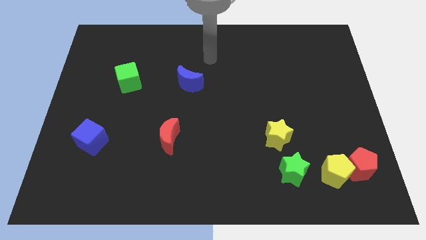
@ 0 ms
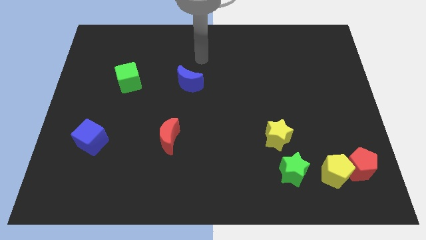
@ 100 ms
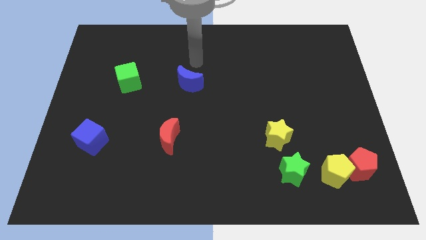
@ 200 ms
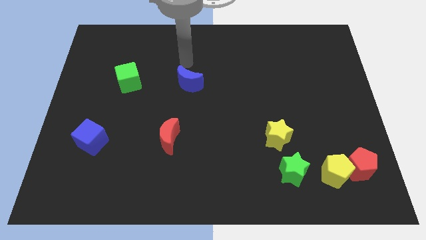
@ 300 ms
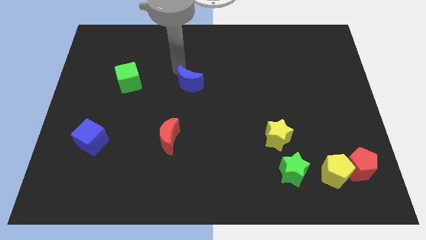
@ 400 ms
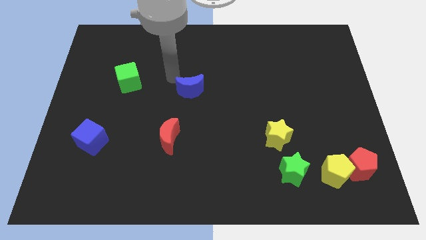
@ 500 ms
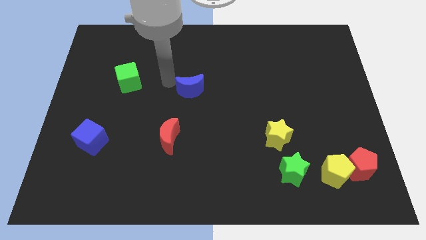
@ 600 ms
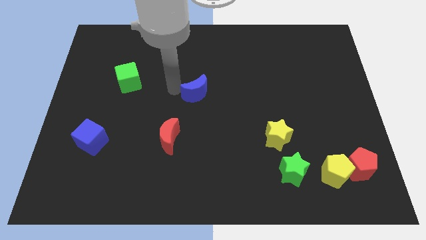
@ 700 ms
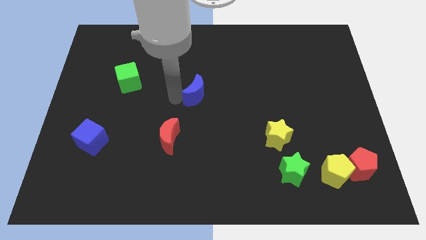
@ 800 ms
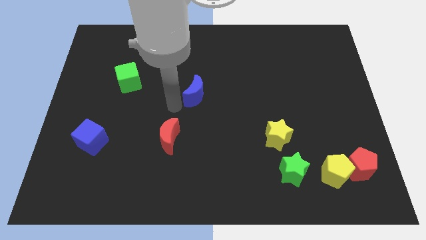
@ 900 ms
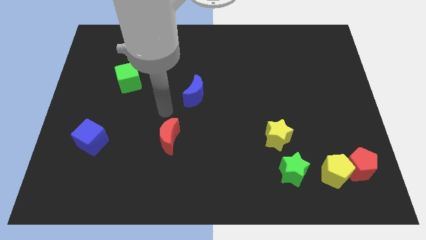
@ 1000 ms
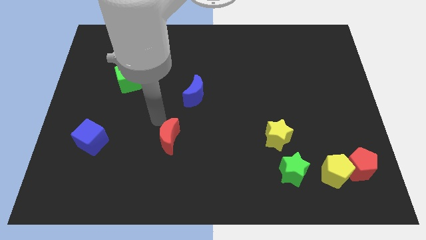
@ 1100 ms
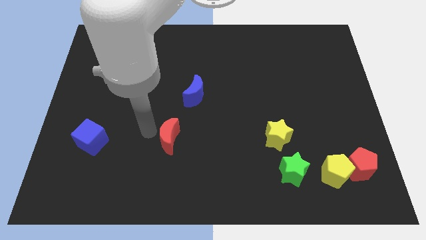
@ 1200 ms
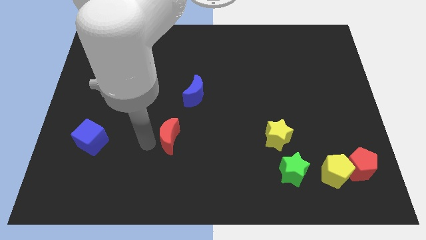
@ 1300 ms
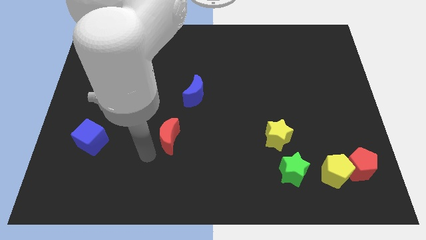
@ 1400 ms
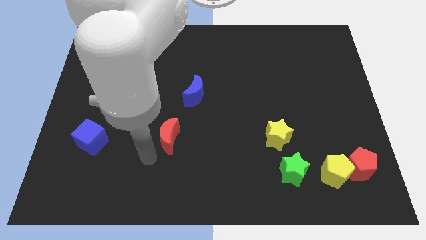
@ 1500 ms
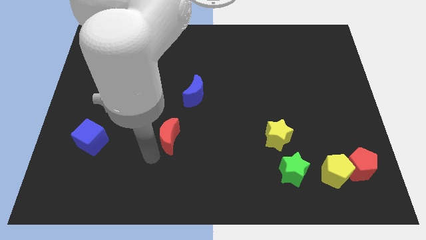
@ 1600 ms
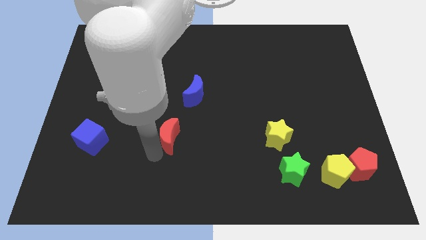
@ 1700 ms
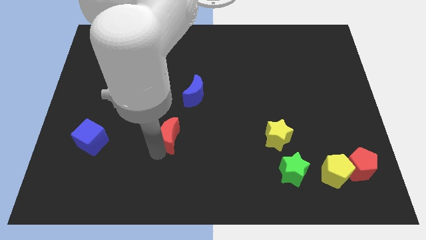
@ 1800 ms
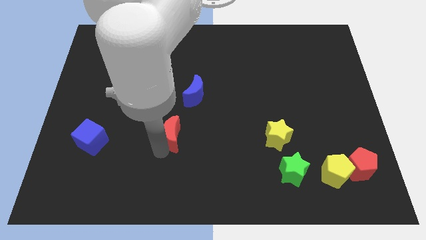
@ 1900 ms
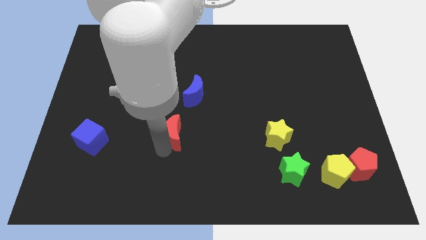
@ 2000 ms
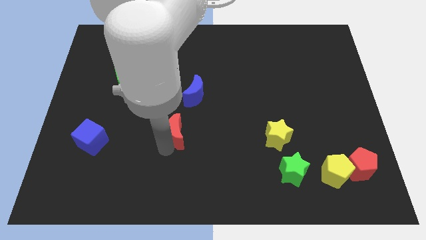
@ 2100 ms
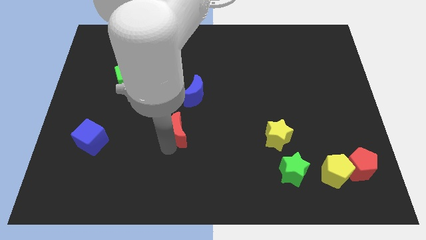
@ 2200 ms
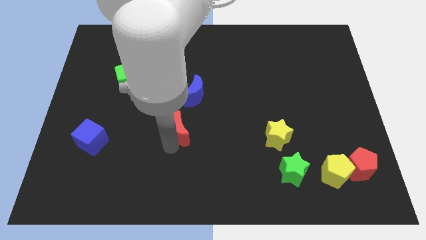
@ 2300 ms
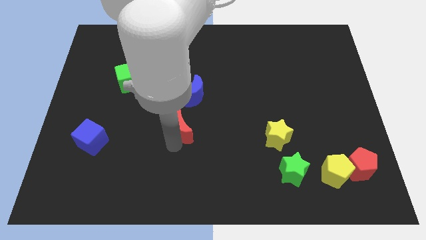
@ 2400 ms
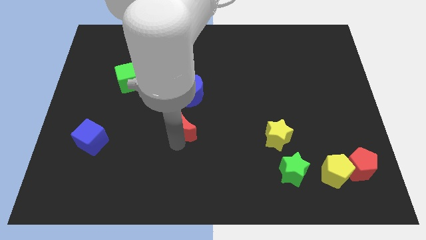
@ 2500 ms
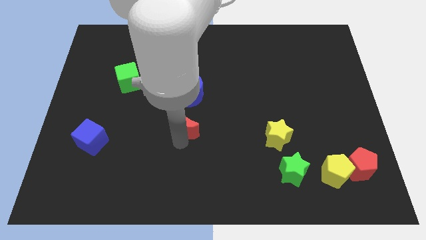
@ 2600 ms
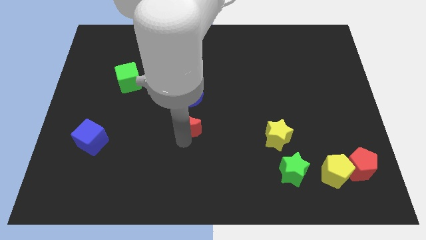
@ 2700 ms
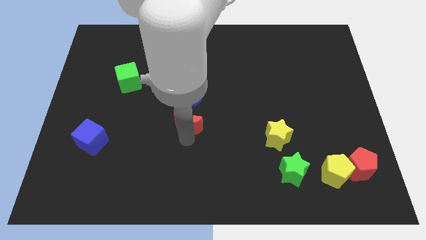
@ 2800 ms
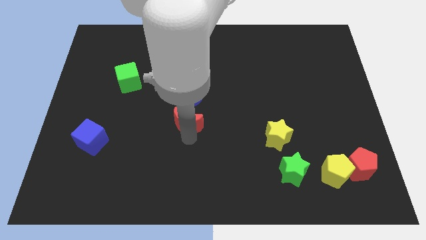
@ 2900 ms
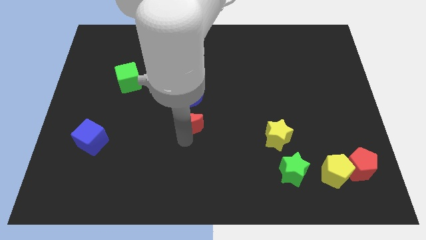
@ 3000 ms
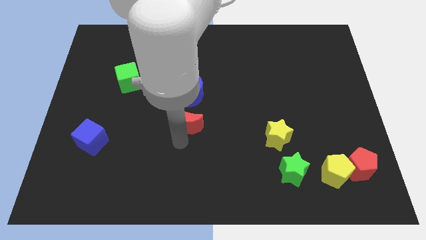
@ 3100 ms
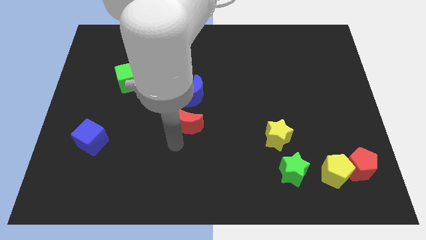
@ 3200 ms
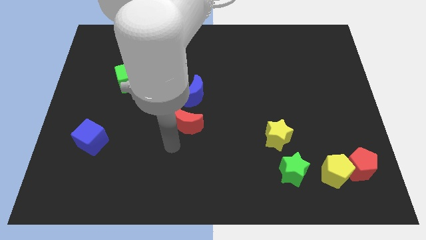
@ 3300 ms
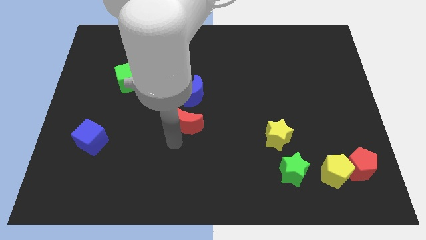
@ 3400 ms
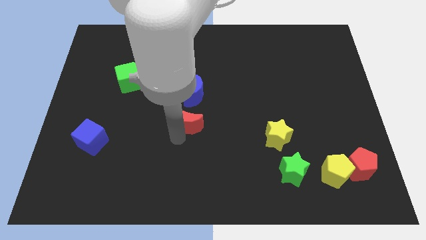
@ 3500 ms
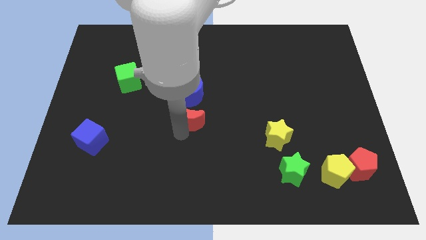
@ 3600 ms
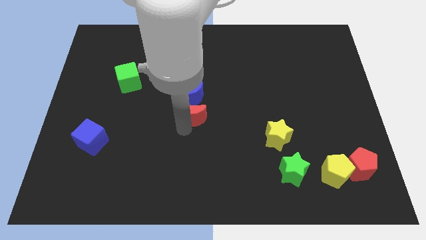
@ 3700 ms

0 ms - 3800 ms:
slightly move the red moon diagonally upwards and to the right

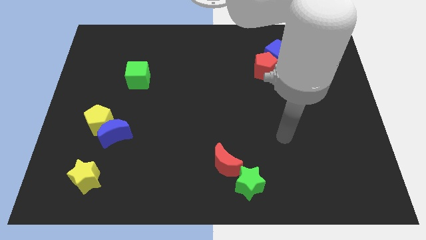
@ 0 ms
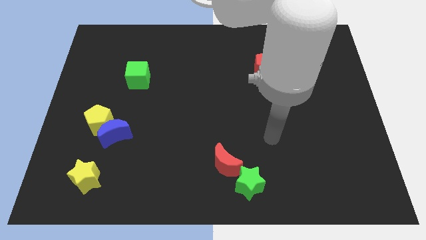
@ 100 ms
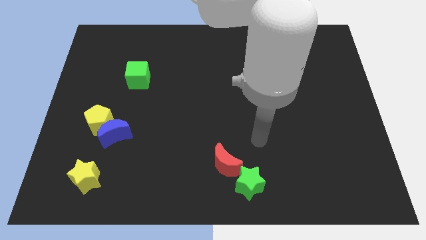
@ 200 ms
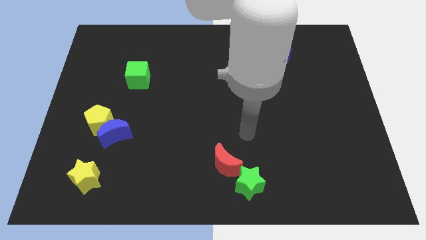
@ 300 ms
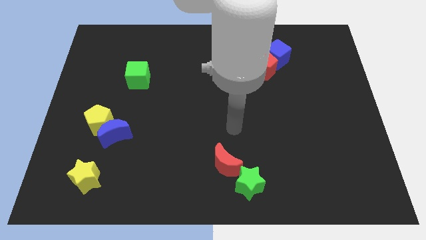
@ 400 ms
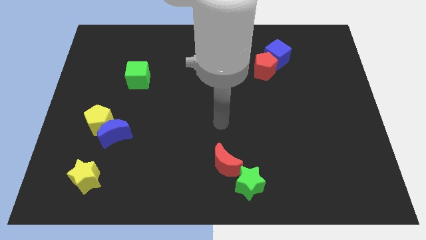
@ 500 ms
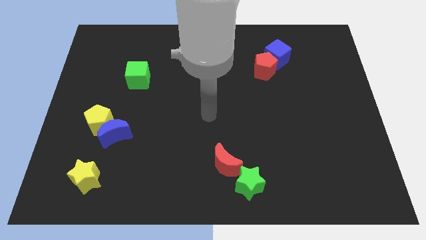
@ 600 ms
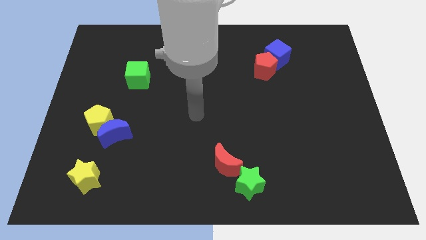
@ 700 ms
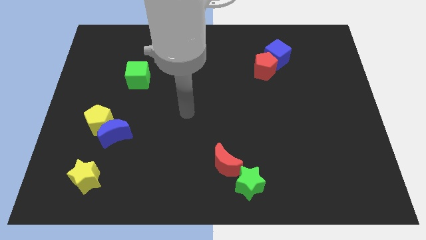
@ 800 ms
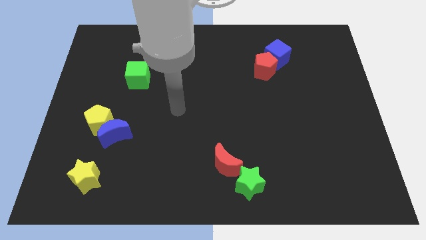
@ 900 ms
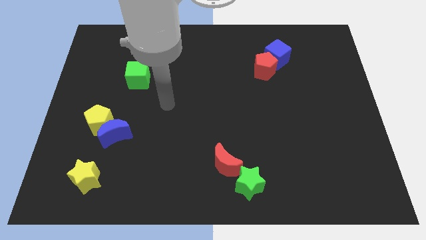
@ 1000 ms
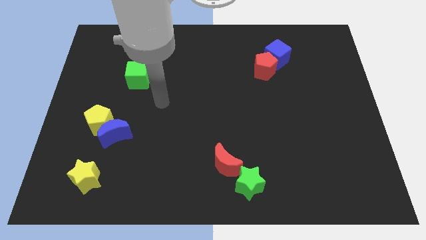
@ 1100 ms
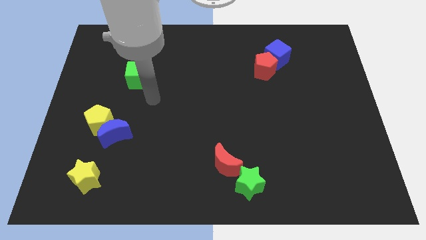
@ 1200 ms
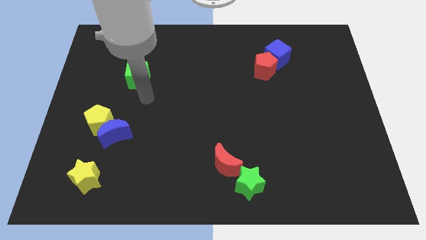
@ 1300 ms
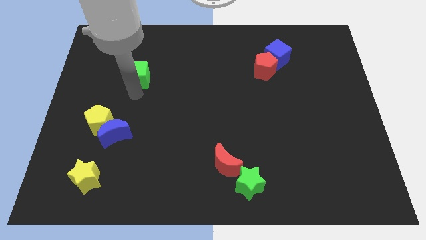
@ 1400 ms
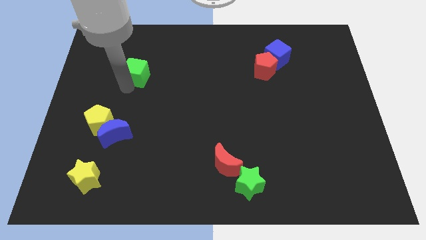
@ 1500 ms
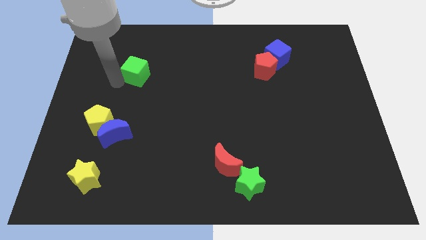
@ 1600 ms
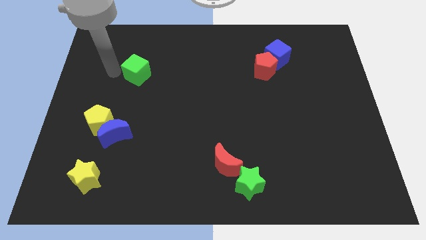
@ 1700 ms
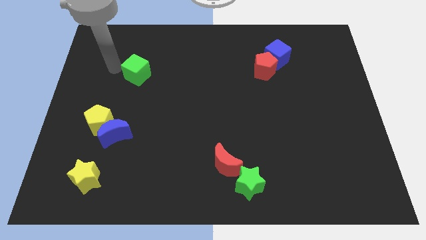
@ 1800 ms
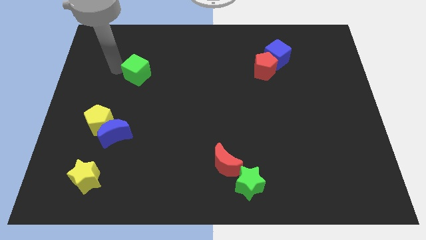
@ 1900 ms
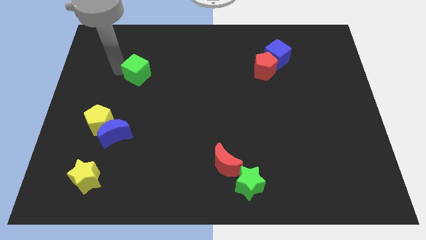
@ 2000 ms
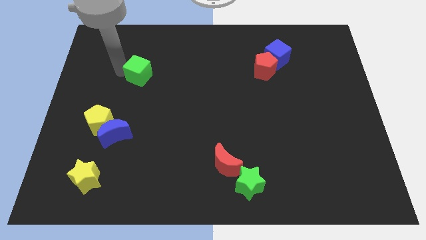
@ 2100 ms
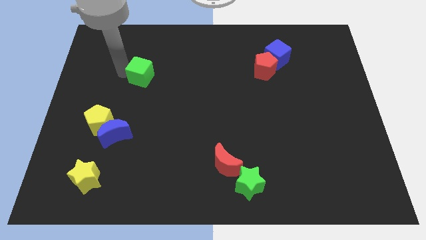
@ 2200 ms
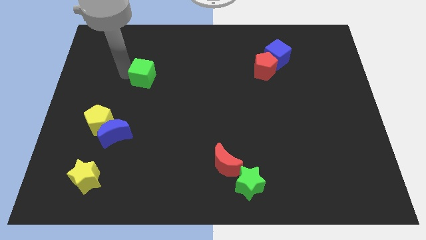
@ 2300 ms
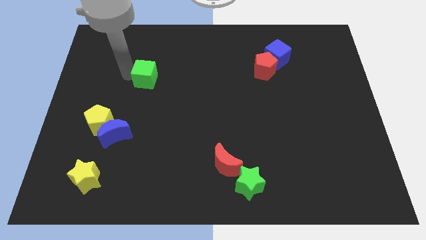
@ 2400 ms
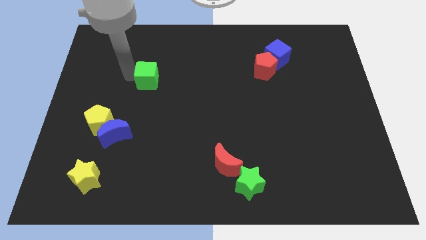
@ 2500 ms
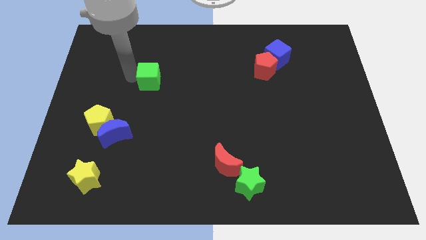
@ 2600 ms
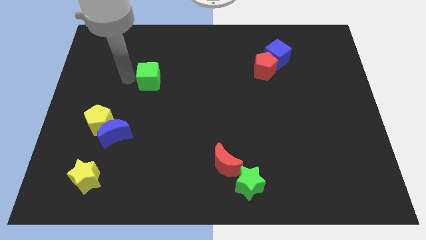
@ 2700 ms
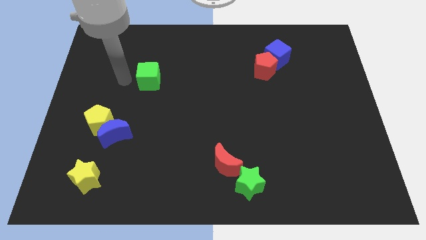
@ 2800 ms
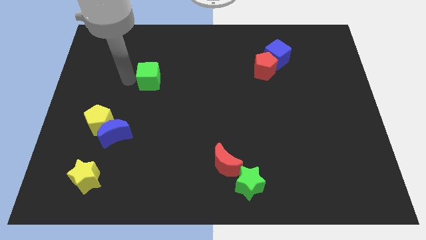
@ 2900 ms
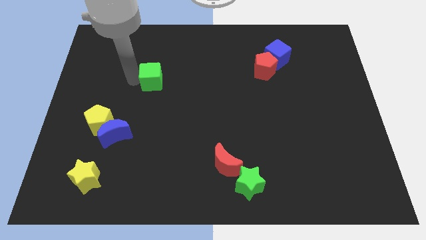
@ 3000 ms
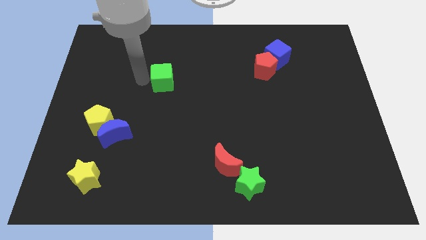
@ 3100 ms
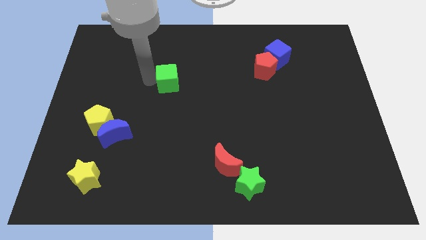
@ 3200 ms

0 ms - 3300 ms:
slightly move the green cube right

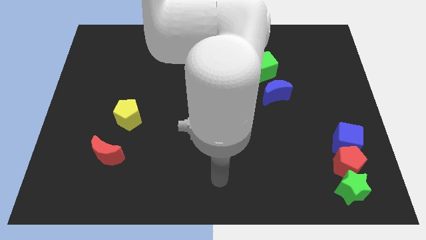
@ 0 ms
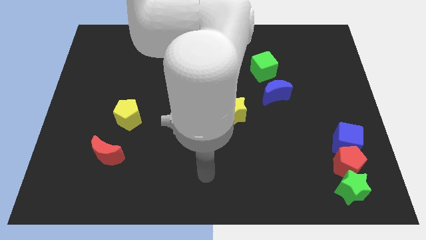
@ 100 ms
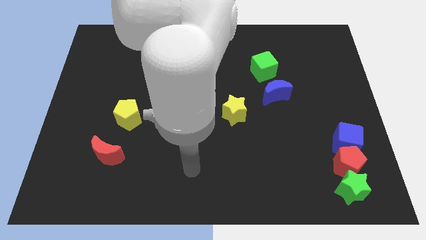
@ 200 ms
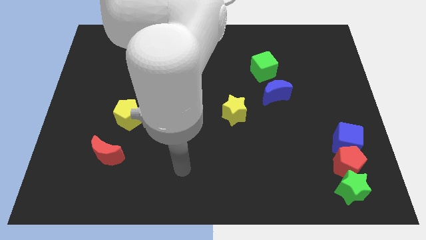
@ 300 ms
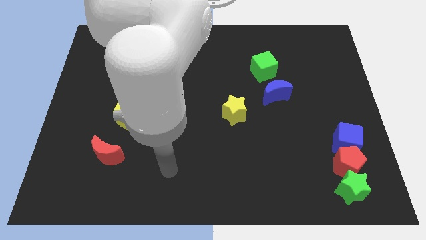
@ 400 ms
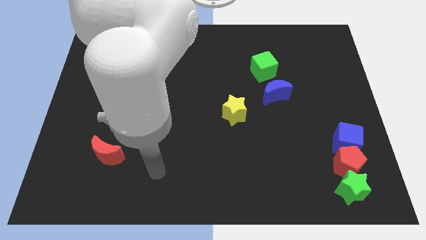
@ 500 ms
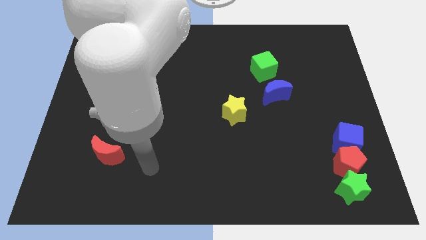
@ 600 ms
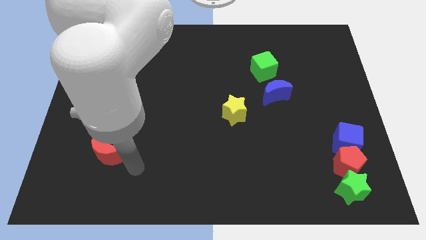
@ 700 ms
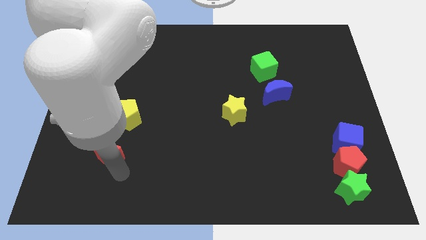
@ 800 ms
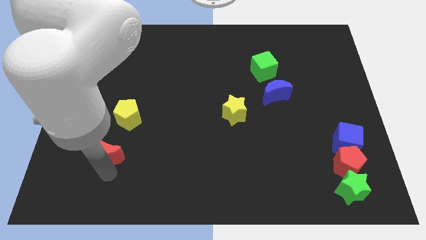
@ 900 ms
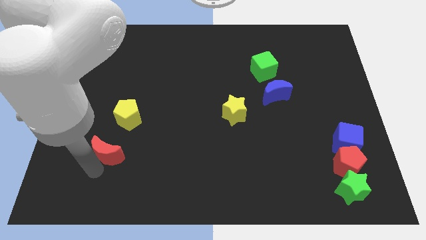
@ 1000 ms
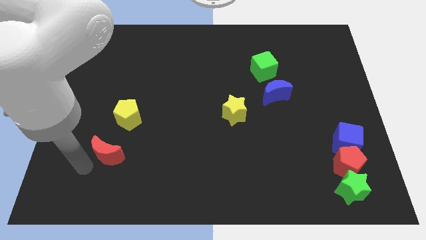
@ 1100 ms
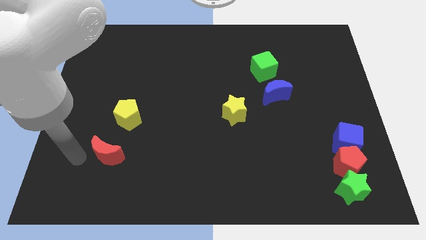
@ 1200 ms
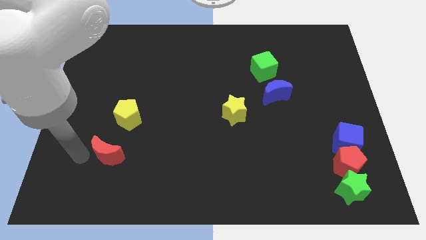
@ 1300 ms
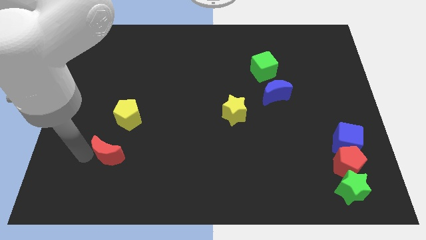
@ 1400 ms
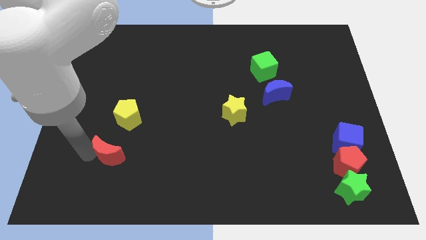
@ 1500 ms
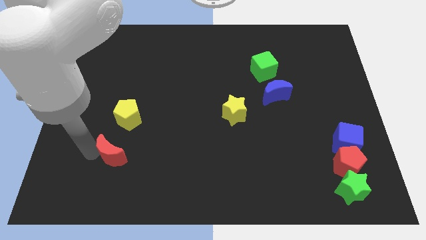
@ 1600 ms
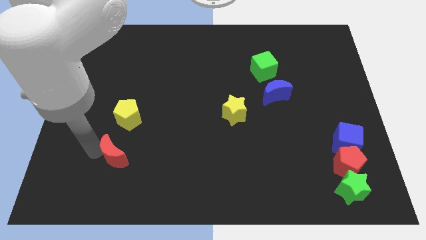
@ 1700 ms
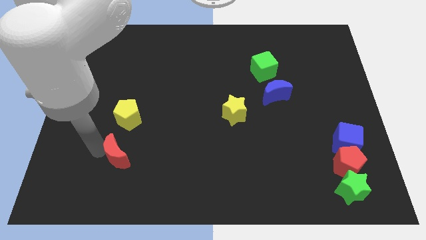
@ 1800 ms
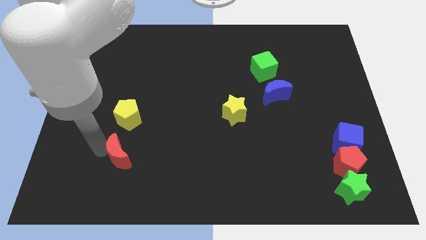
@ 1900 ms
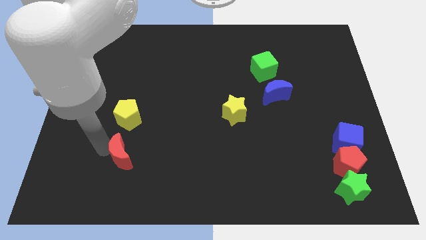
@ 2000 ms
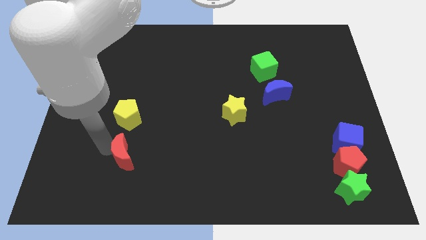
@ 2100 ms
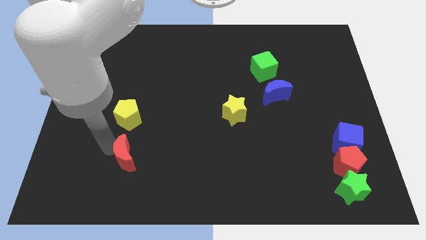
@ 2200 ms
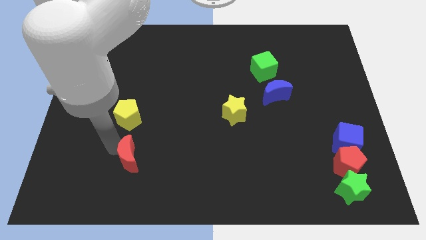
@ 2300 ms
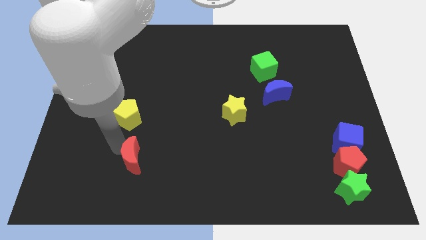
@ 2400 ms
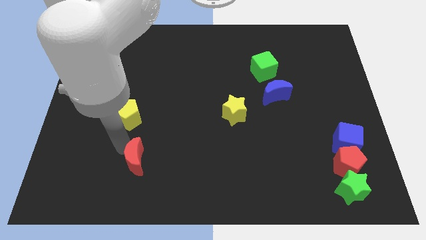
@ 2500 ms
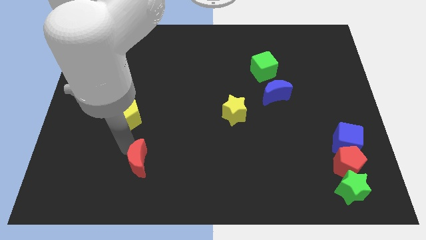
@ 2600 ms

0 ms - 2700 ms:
slide the red moon a bit right
